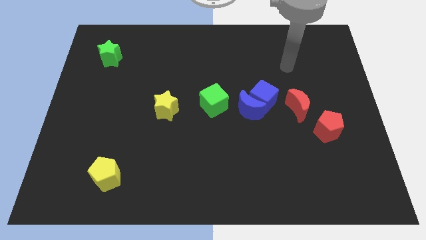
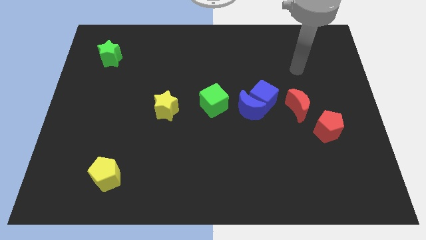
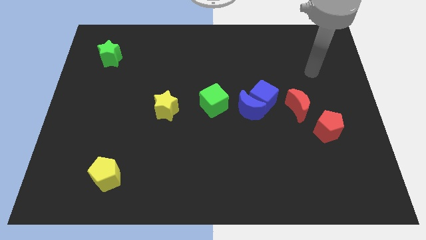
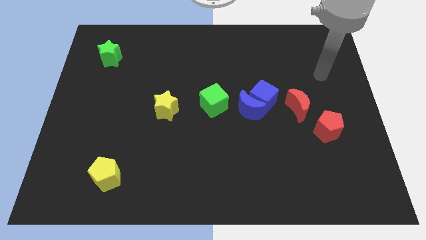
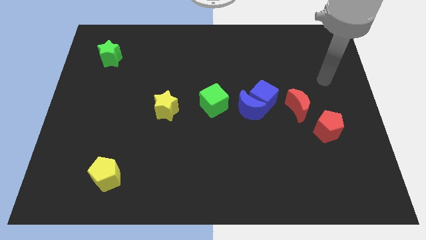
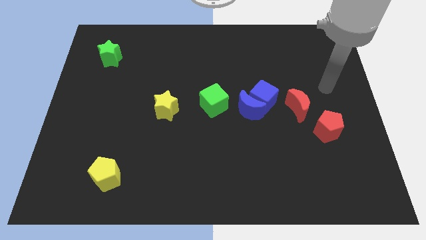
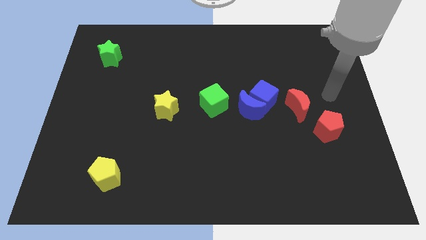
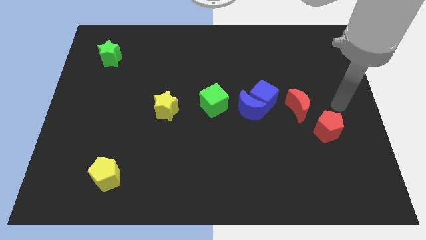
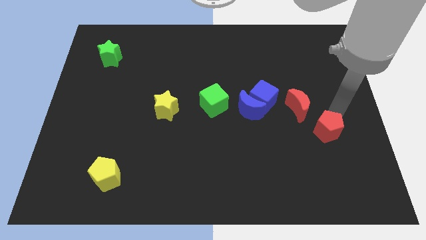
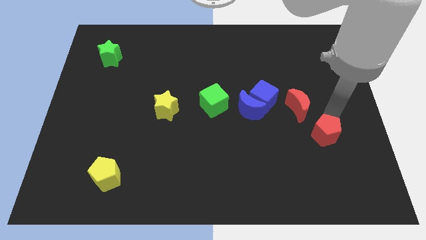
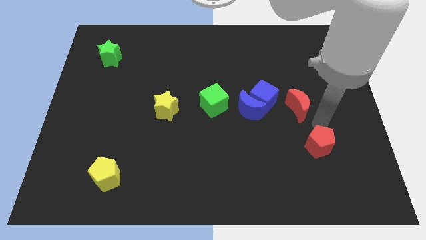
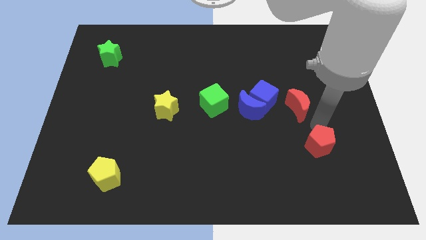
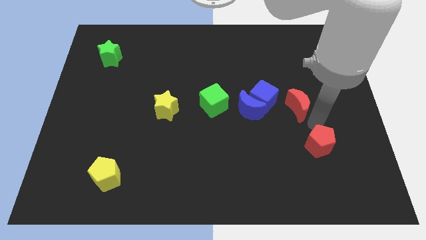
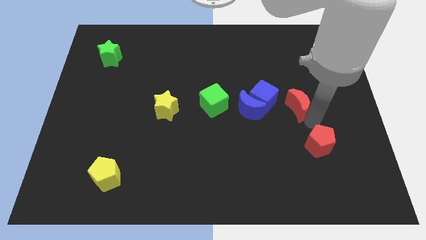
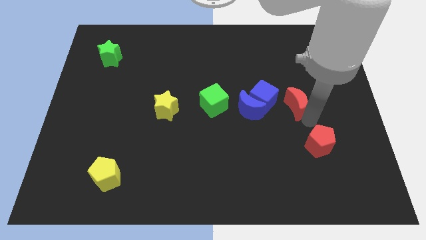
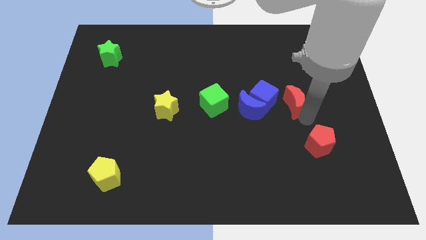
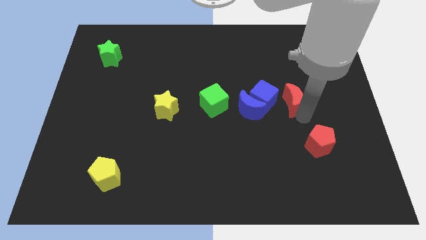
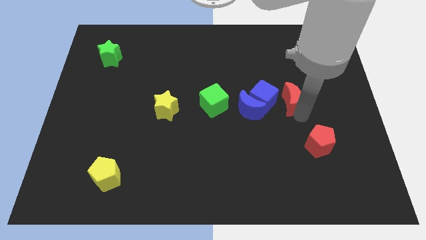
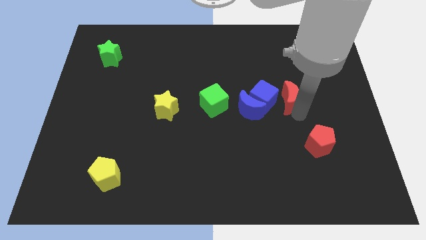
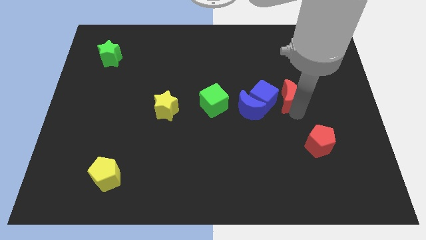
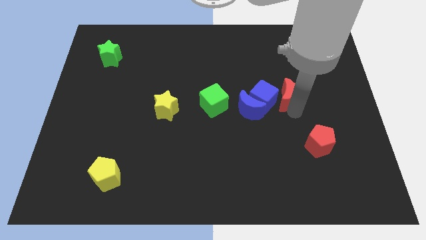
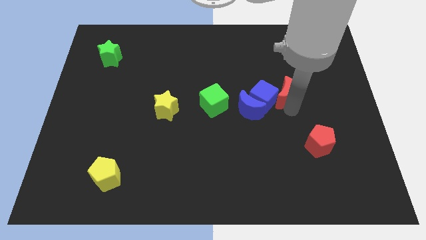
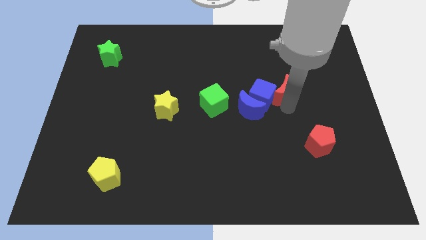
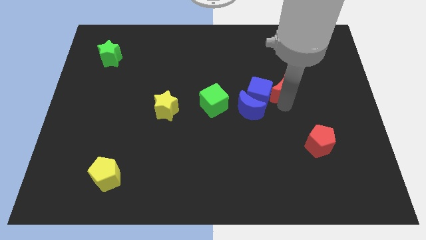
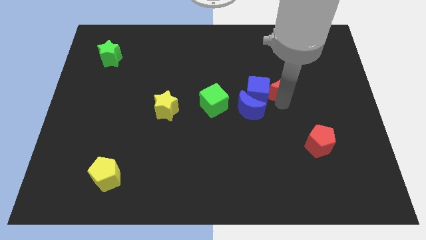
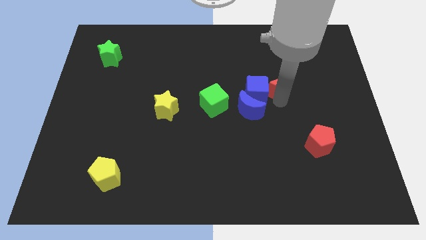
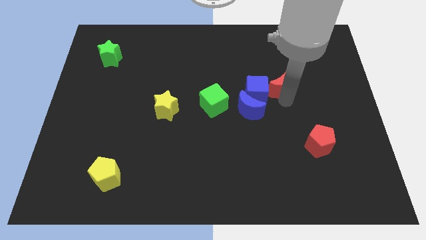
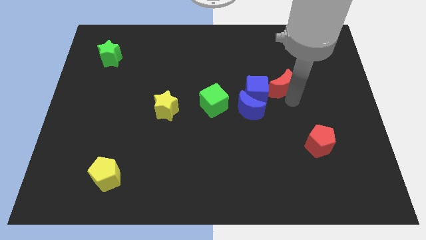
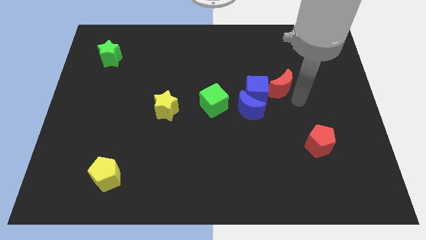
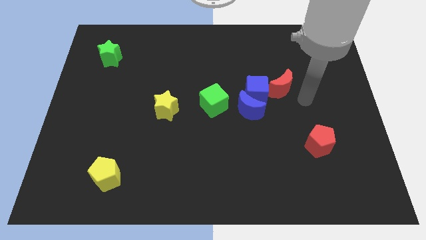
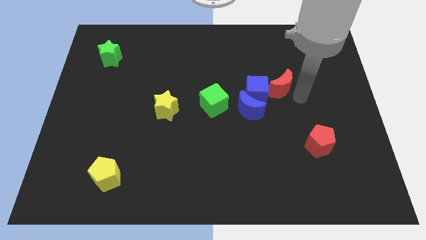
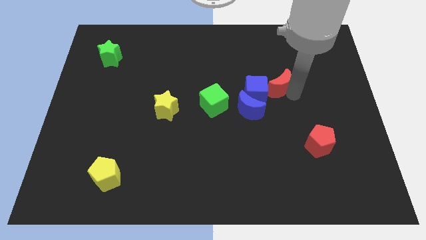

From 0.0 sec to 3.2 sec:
move the red moon upwards and to the left diagonally a little bit

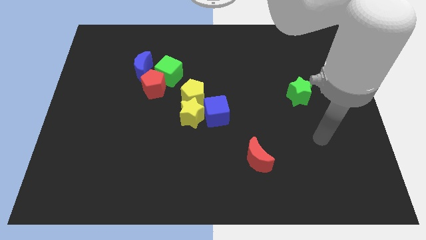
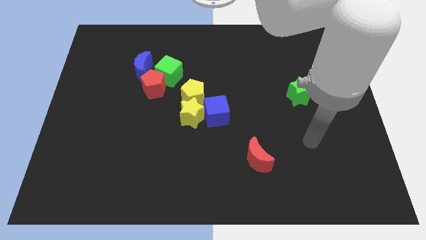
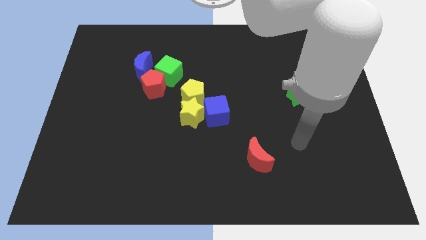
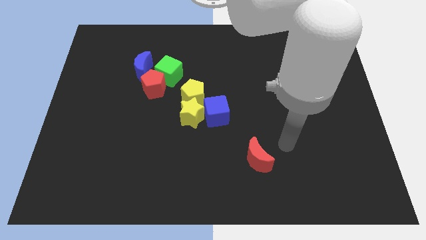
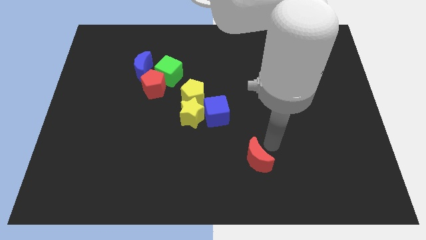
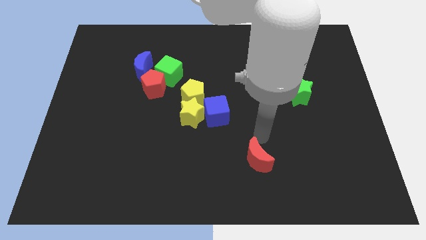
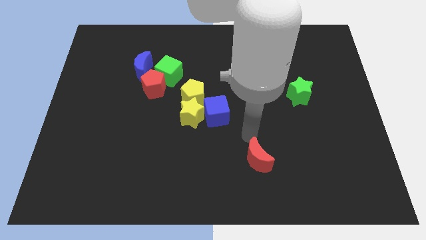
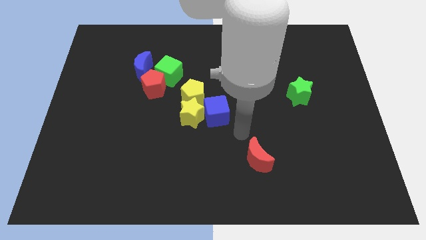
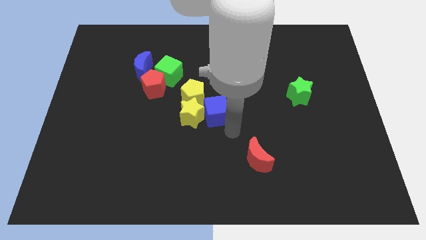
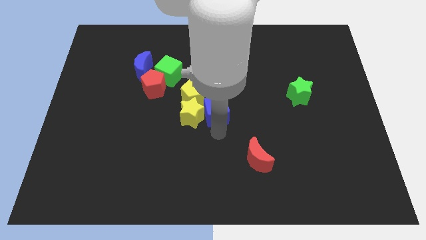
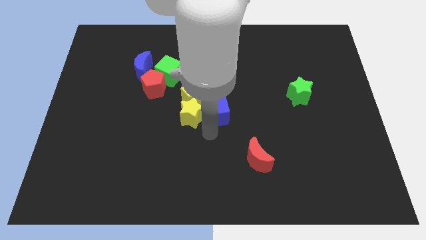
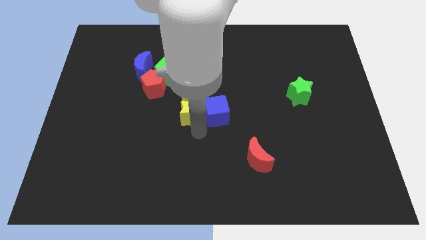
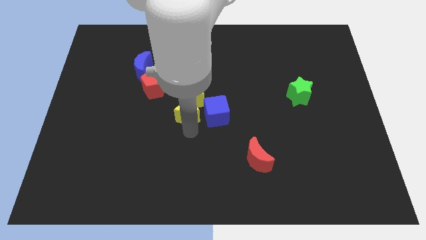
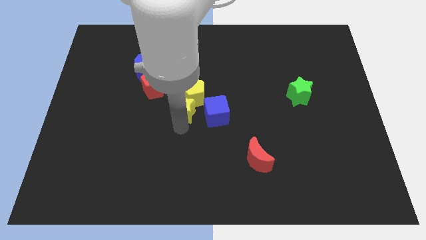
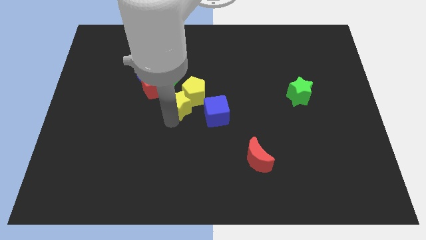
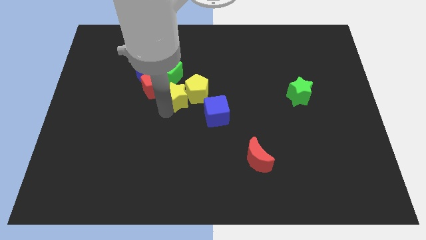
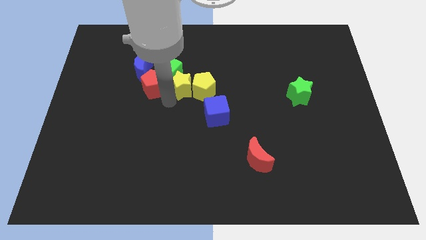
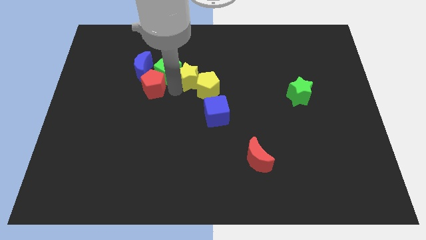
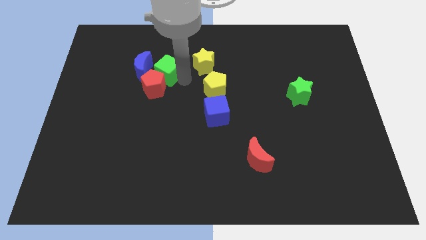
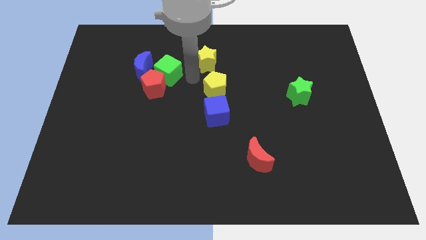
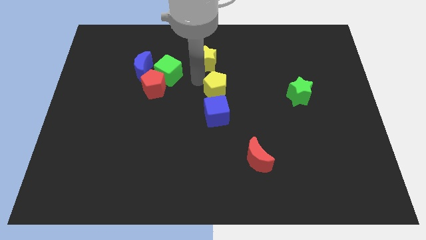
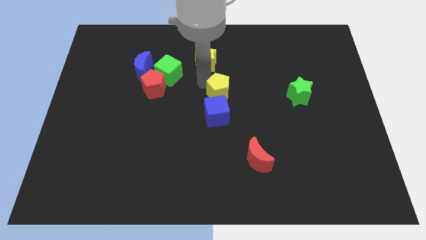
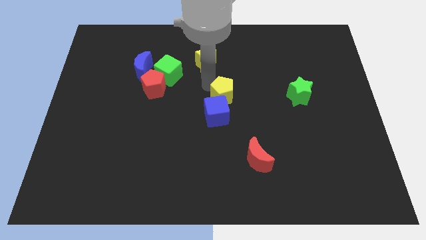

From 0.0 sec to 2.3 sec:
move the yellow pentagon a little bit right

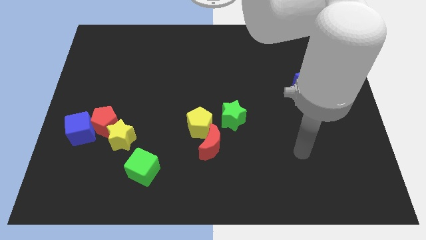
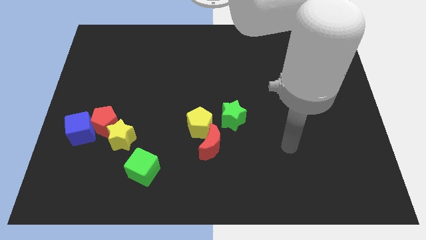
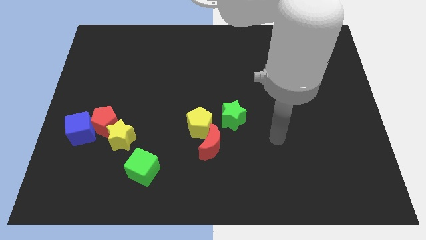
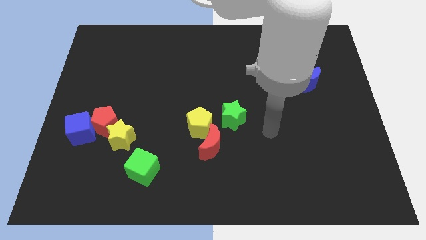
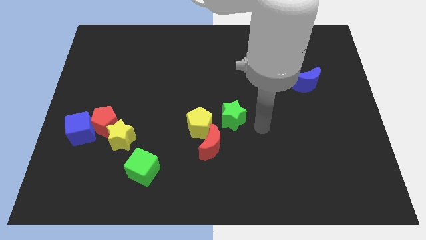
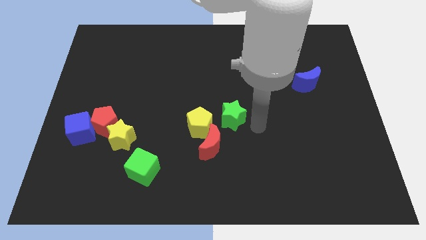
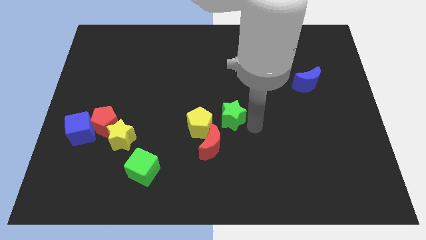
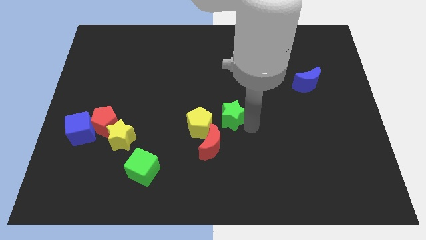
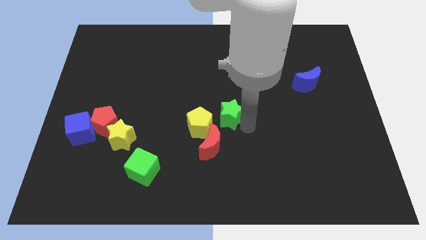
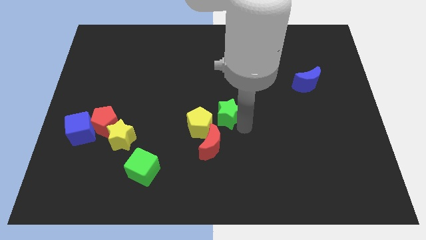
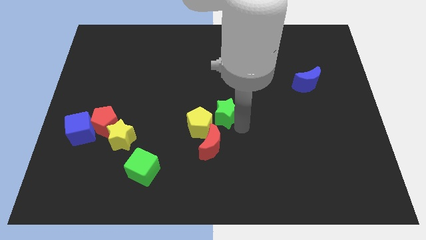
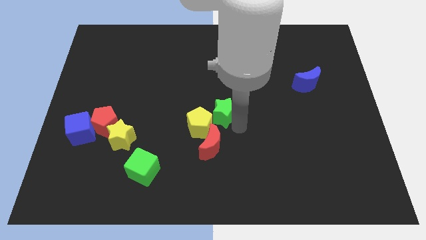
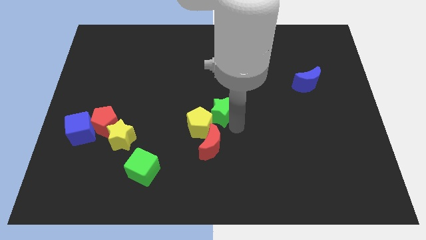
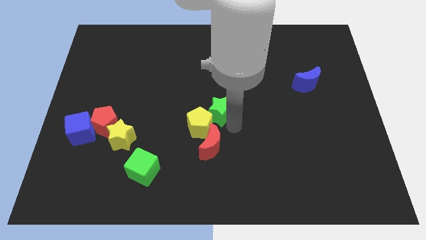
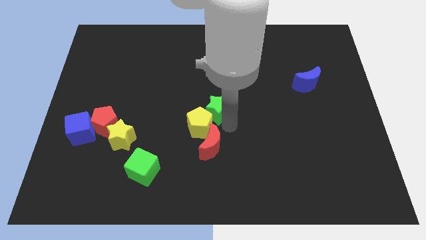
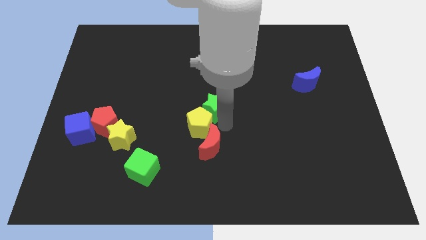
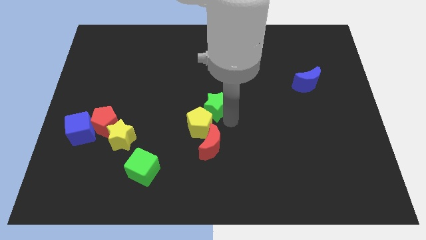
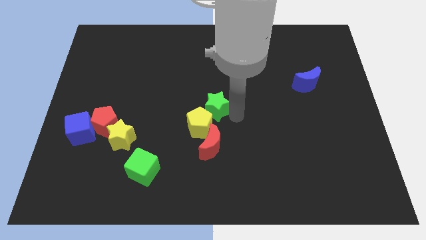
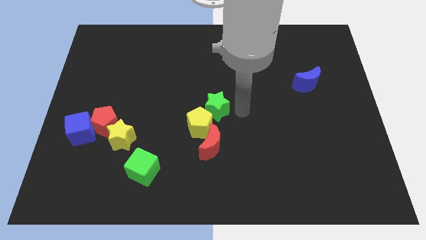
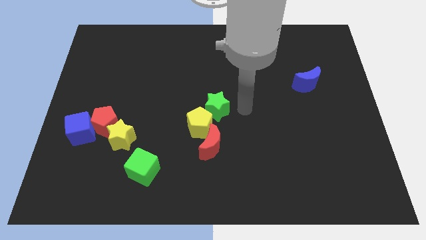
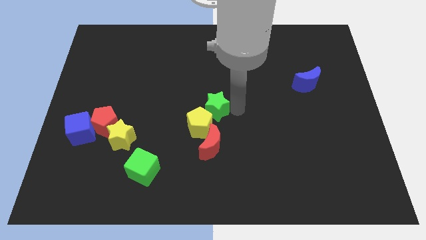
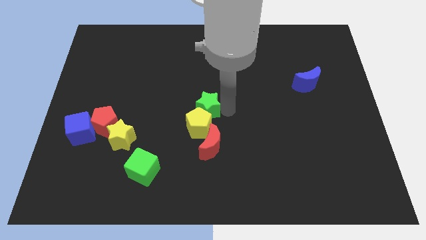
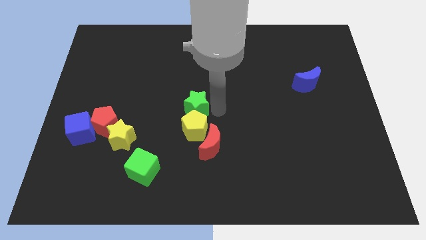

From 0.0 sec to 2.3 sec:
slightly move the green star to the left

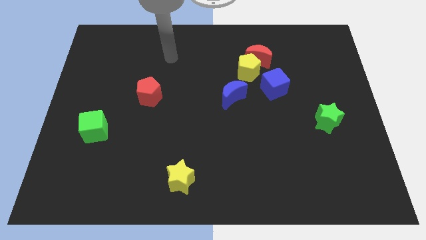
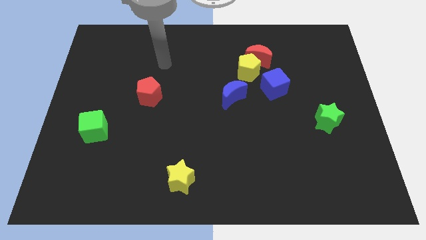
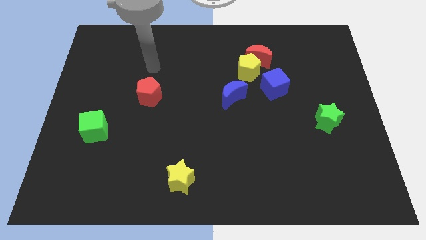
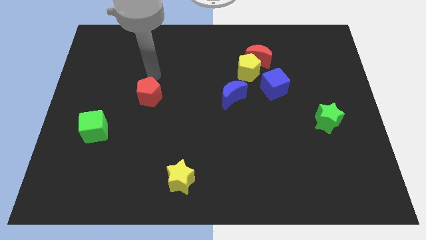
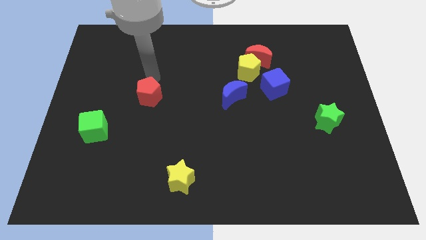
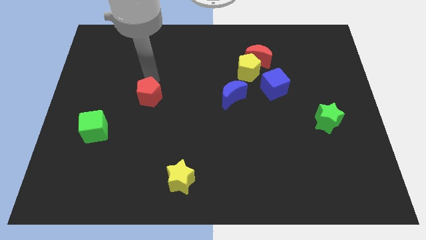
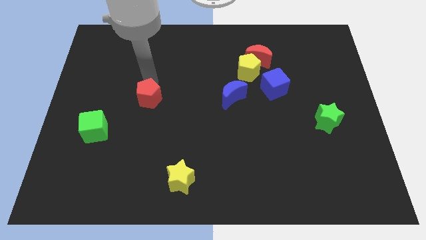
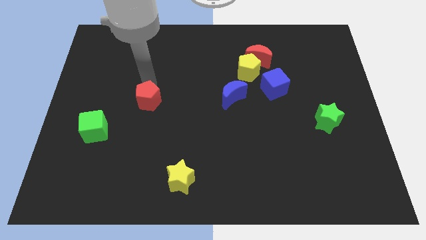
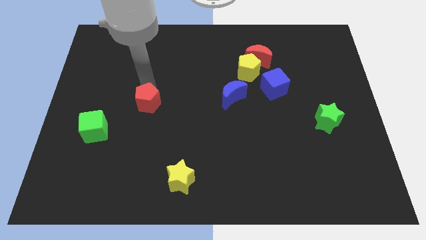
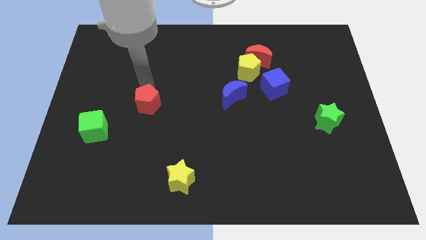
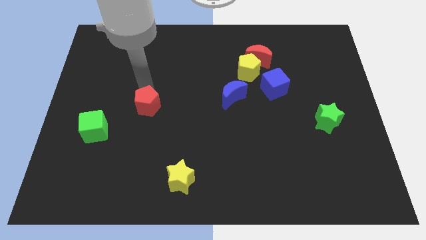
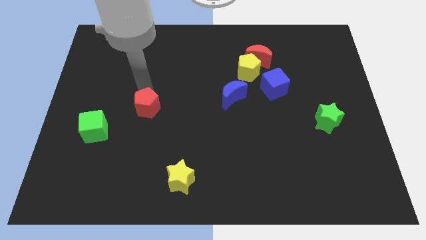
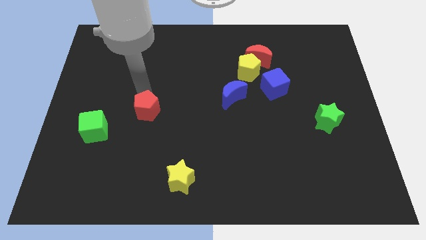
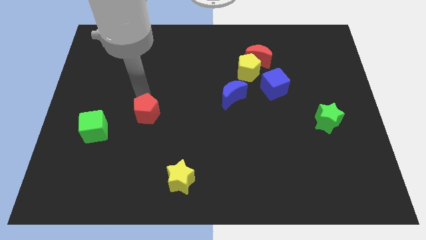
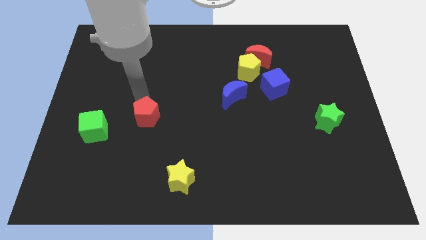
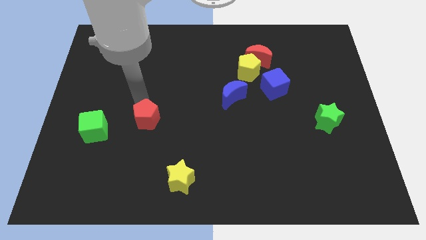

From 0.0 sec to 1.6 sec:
push the red pentagon slightly down
